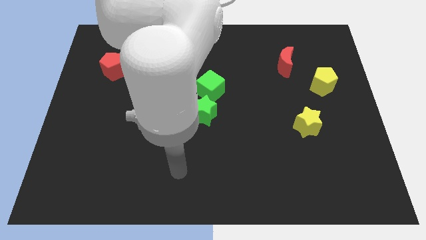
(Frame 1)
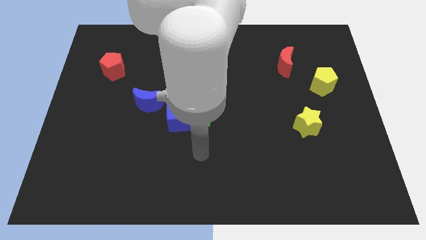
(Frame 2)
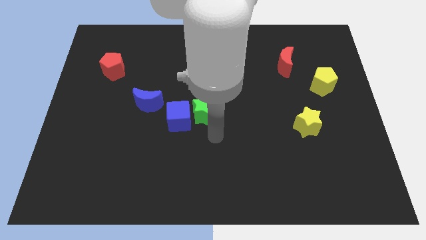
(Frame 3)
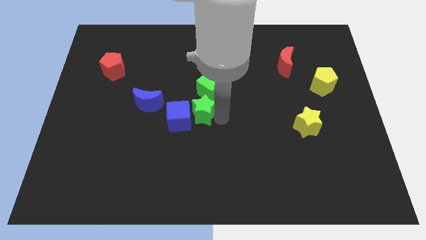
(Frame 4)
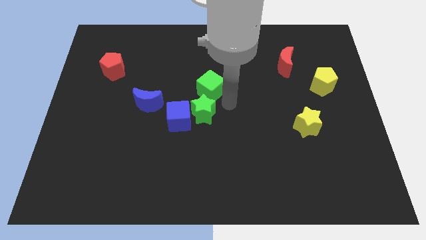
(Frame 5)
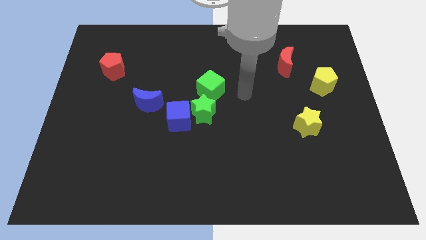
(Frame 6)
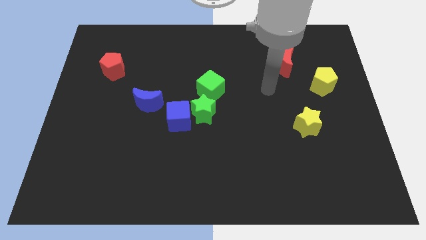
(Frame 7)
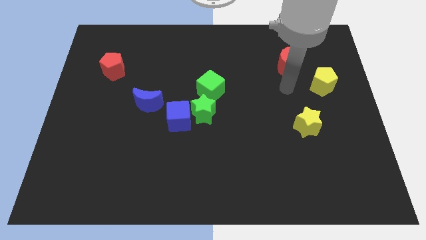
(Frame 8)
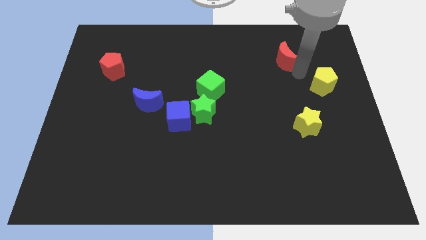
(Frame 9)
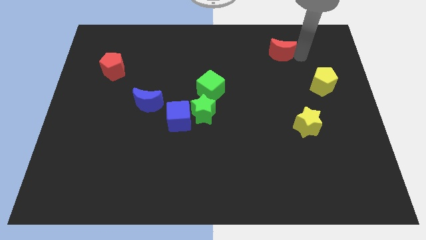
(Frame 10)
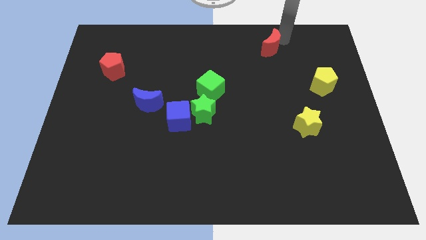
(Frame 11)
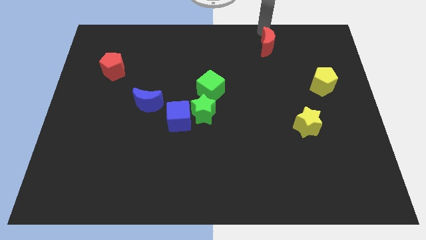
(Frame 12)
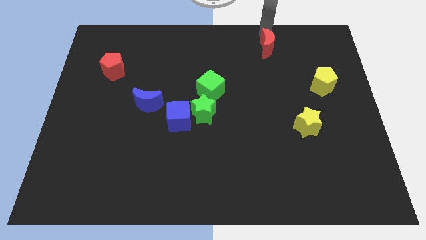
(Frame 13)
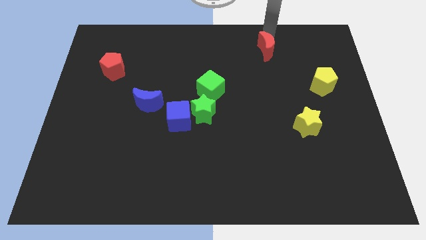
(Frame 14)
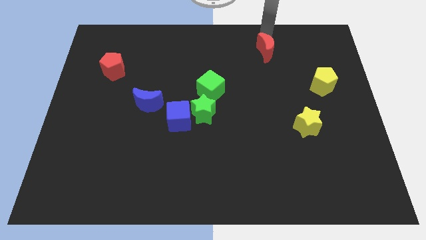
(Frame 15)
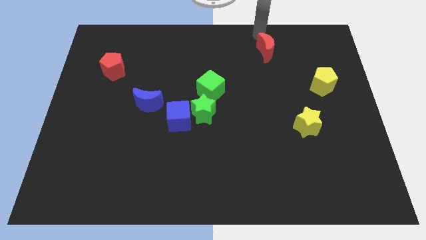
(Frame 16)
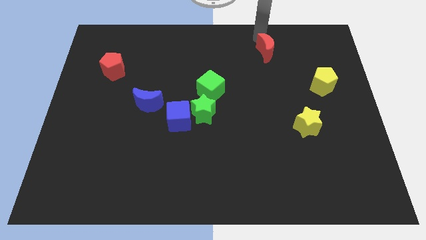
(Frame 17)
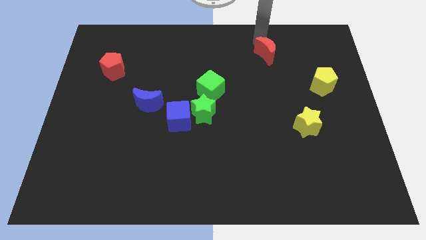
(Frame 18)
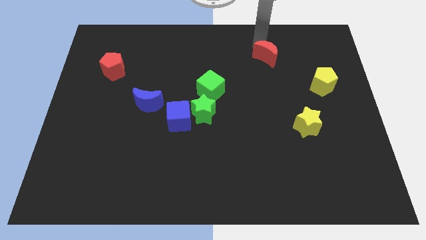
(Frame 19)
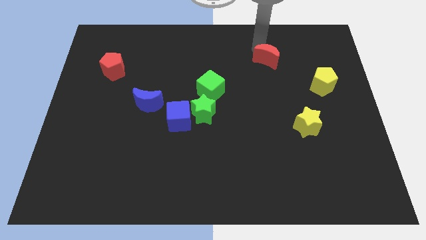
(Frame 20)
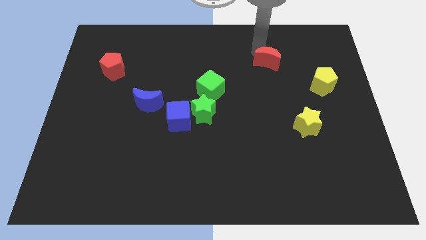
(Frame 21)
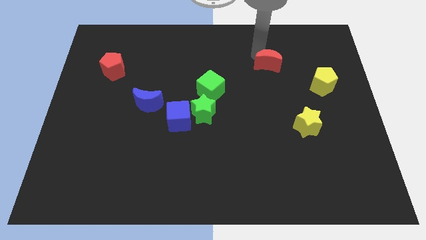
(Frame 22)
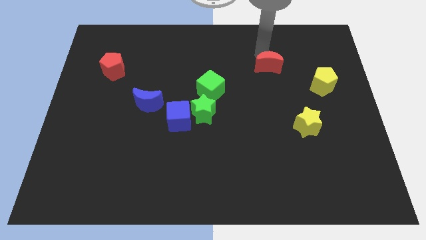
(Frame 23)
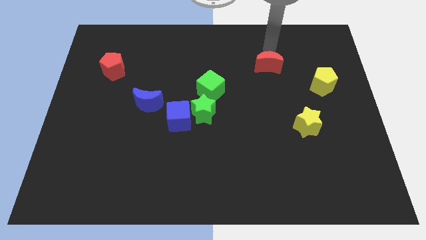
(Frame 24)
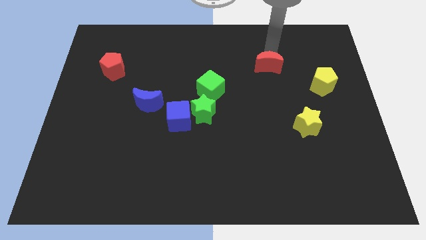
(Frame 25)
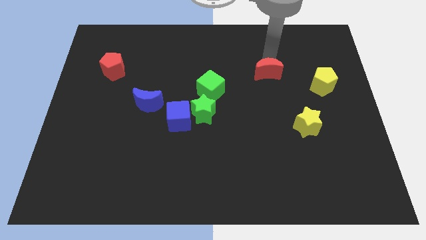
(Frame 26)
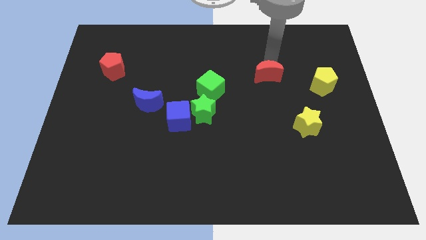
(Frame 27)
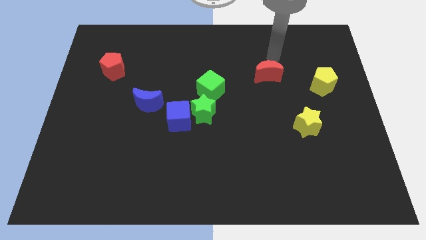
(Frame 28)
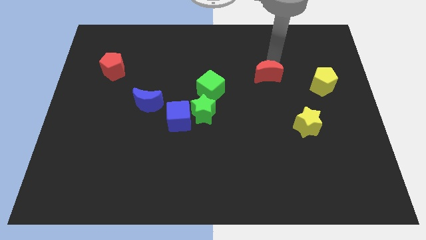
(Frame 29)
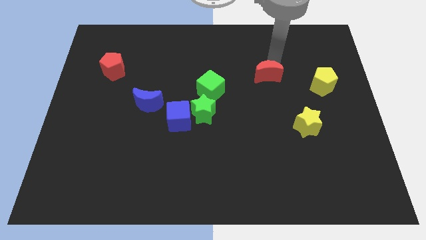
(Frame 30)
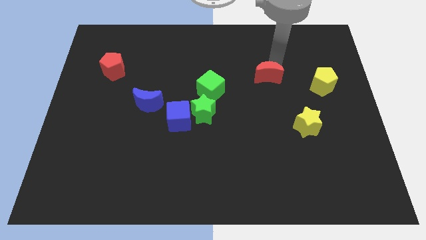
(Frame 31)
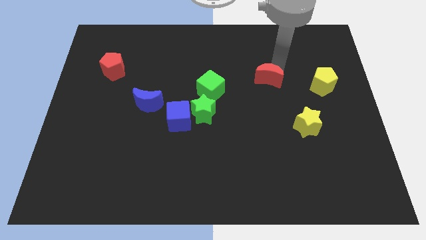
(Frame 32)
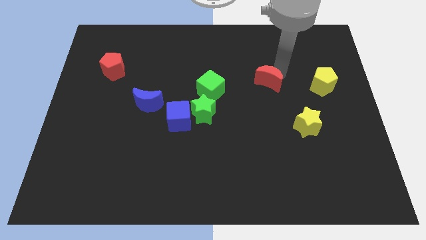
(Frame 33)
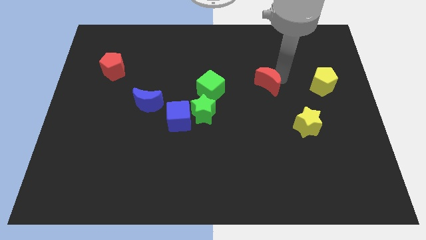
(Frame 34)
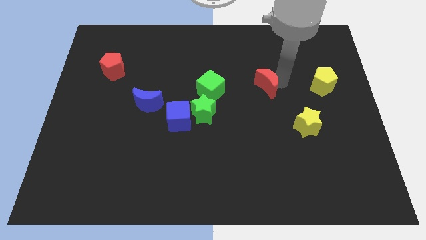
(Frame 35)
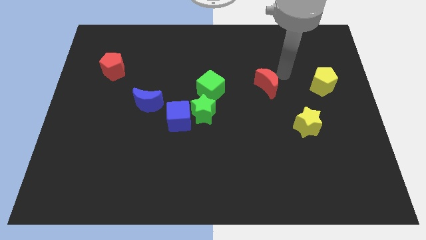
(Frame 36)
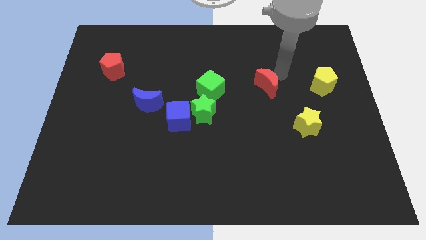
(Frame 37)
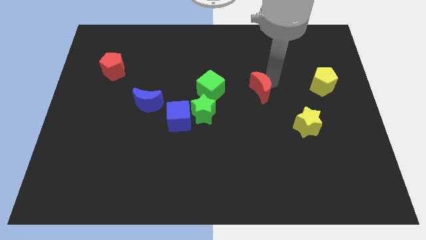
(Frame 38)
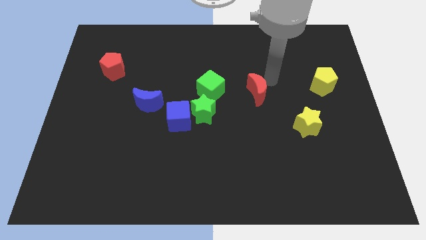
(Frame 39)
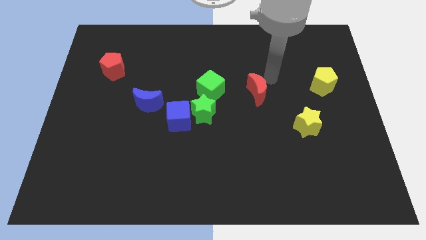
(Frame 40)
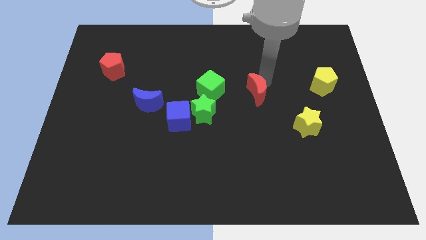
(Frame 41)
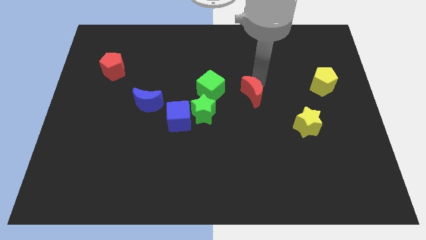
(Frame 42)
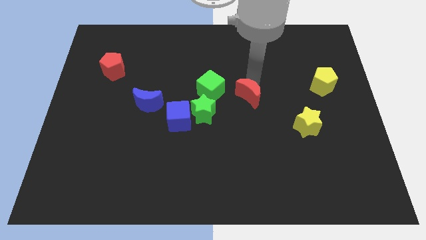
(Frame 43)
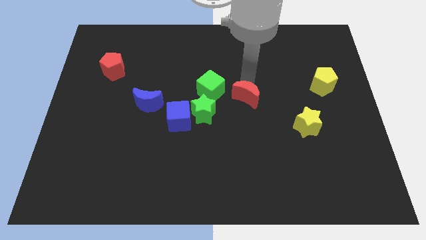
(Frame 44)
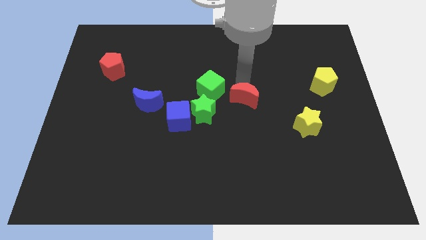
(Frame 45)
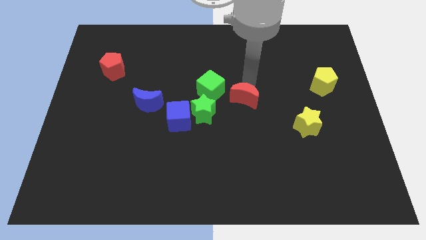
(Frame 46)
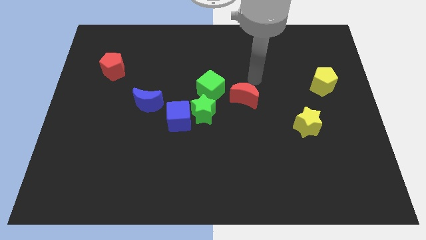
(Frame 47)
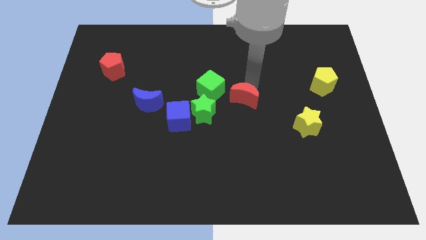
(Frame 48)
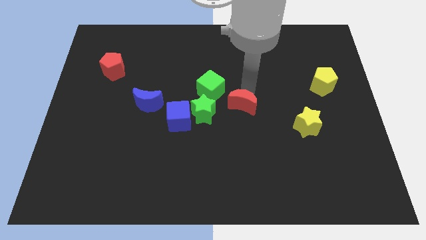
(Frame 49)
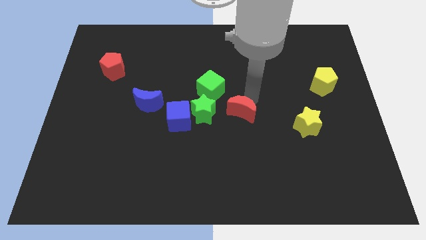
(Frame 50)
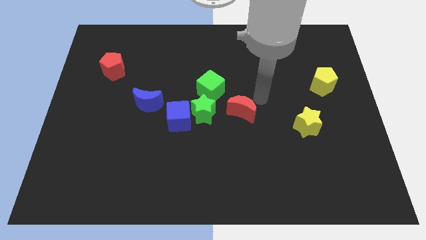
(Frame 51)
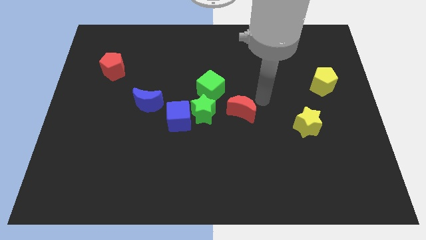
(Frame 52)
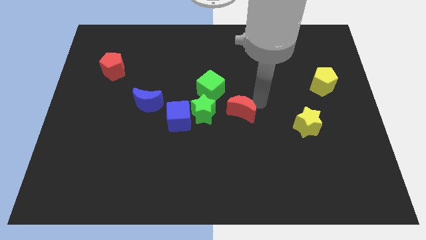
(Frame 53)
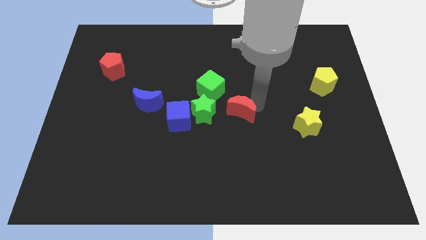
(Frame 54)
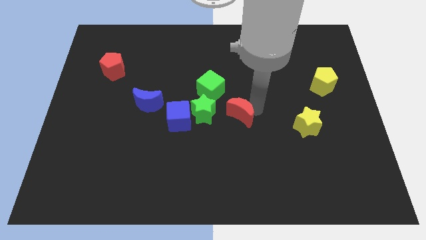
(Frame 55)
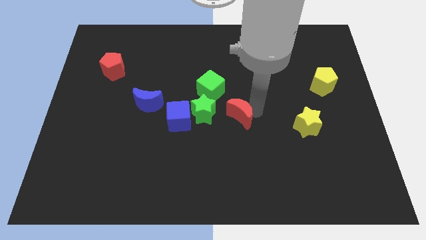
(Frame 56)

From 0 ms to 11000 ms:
move the red moon down and to the left

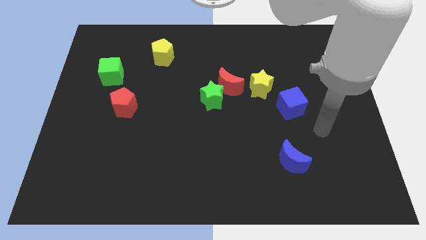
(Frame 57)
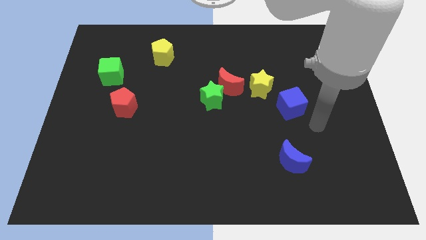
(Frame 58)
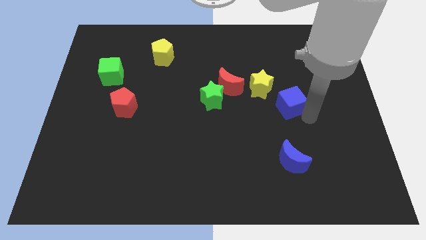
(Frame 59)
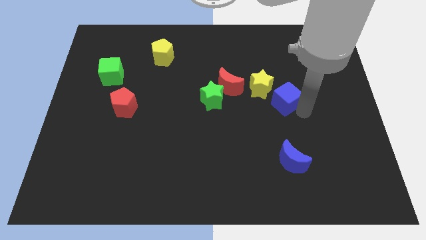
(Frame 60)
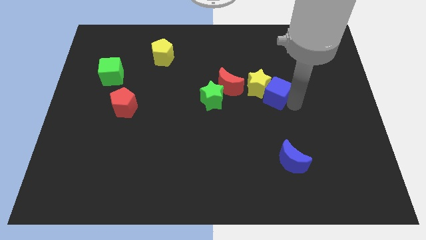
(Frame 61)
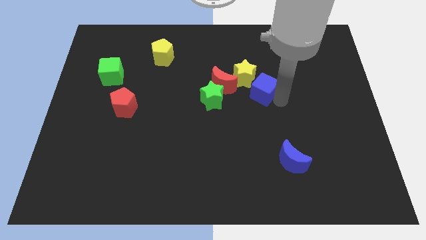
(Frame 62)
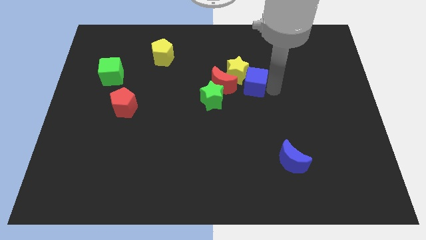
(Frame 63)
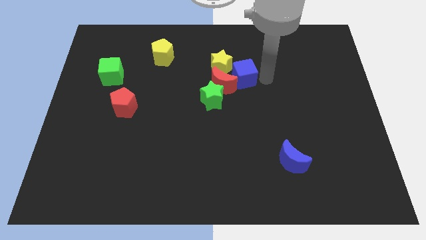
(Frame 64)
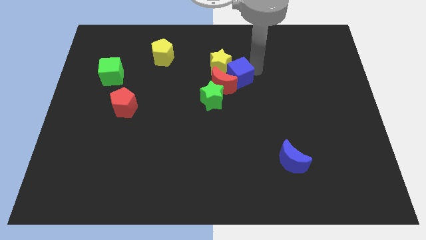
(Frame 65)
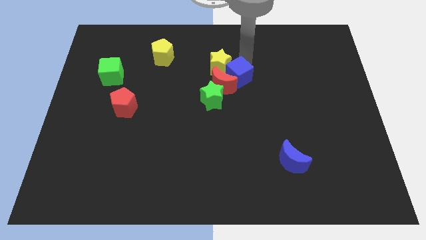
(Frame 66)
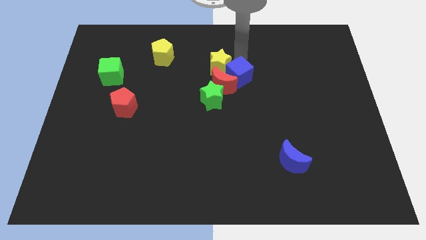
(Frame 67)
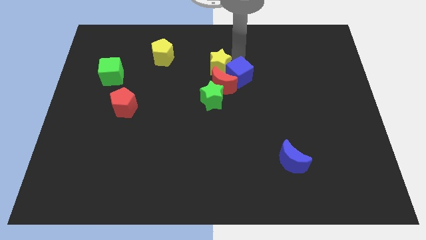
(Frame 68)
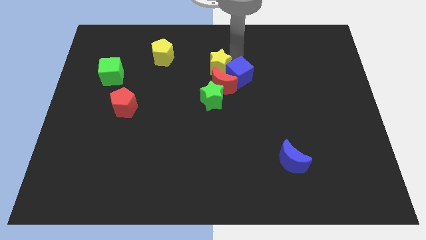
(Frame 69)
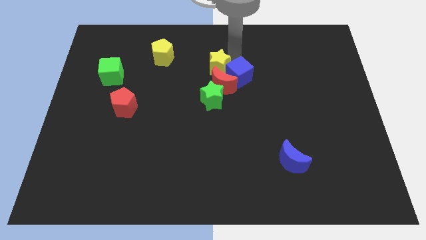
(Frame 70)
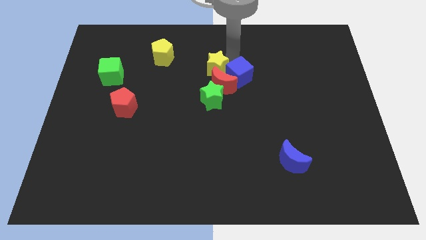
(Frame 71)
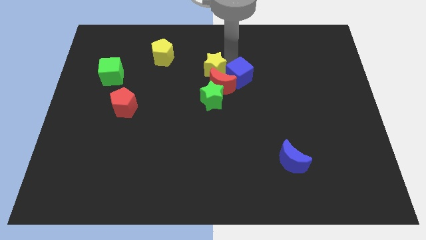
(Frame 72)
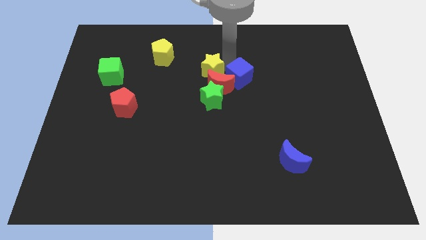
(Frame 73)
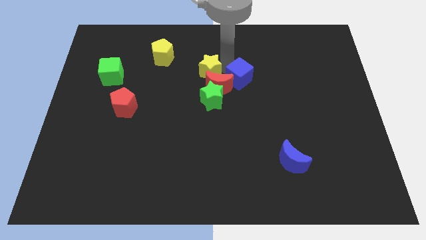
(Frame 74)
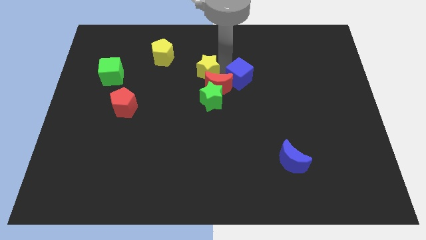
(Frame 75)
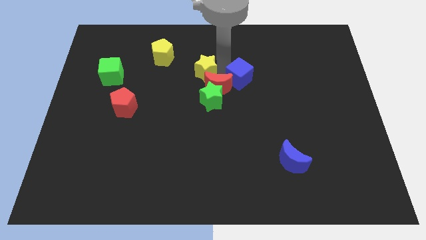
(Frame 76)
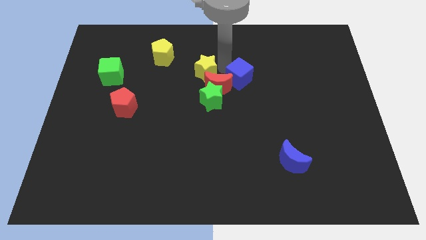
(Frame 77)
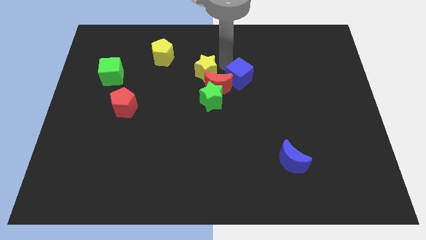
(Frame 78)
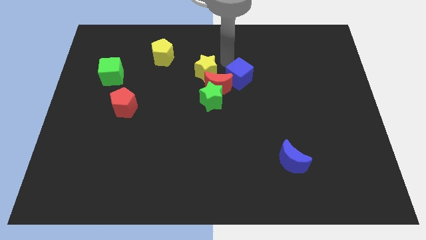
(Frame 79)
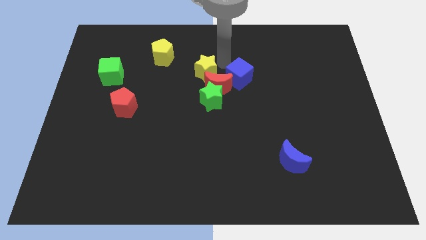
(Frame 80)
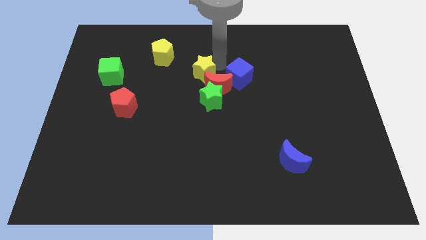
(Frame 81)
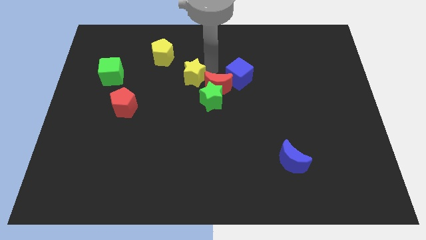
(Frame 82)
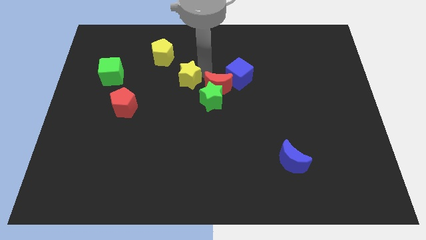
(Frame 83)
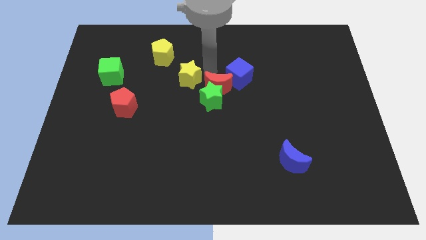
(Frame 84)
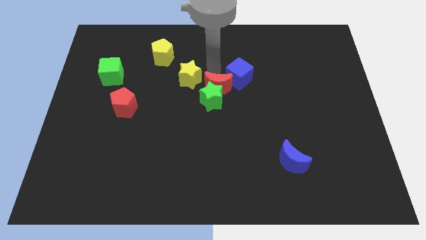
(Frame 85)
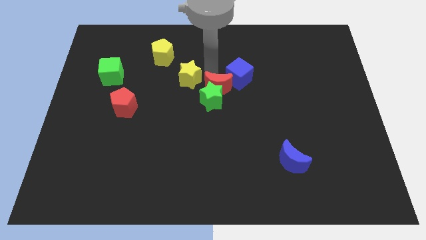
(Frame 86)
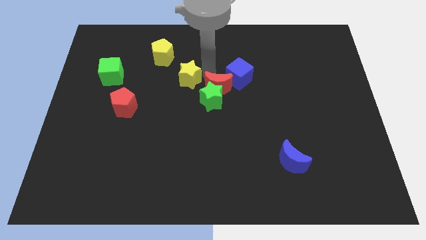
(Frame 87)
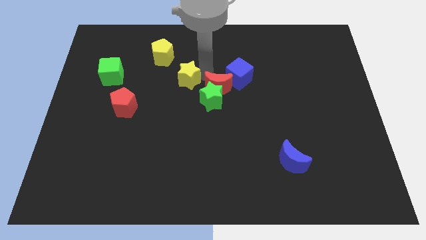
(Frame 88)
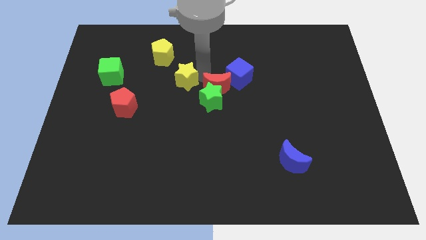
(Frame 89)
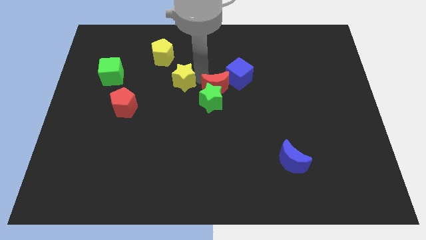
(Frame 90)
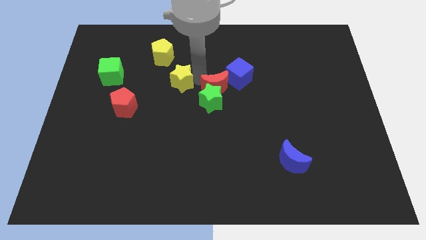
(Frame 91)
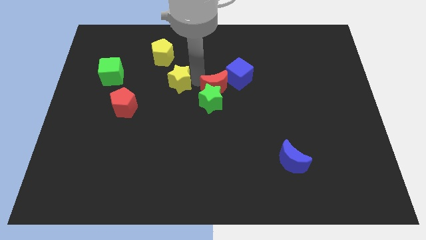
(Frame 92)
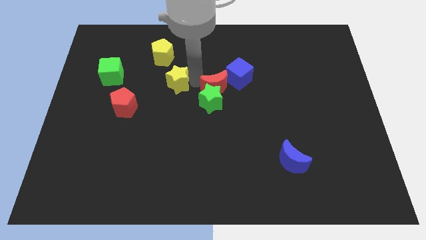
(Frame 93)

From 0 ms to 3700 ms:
push the yellow star left
